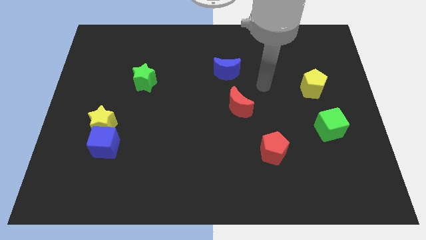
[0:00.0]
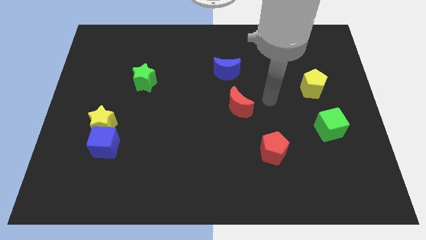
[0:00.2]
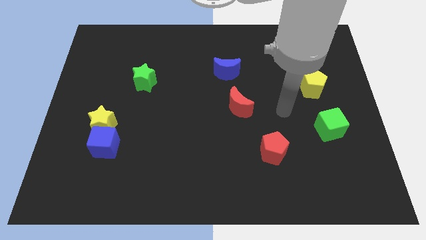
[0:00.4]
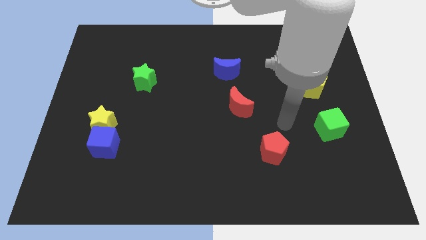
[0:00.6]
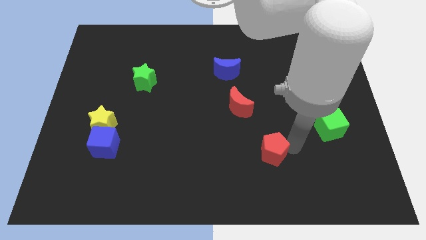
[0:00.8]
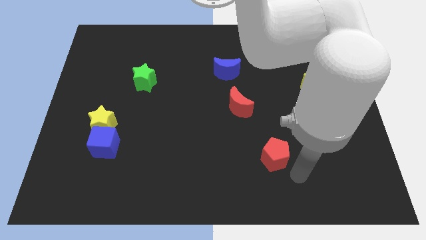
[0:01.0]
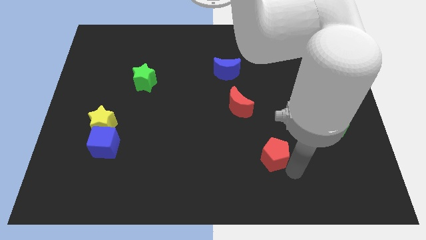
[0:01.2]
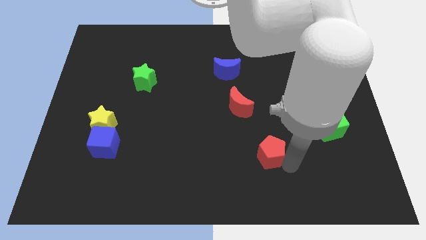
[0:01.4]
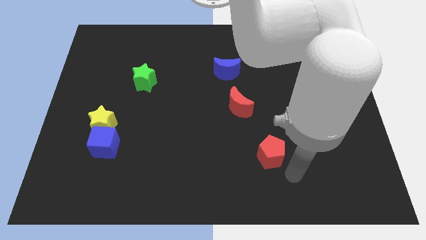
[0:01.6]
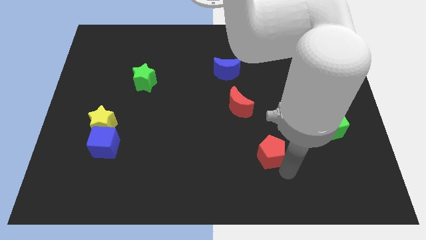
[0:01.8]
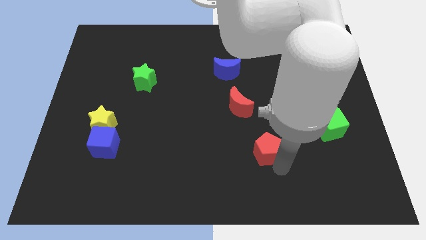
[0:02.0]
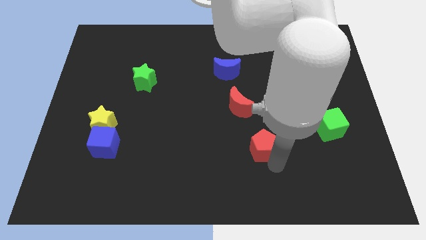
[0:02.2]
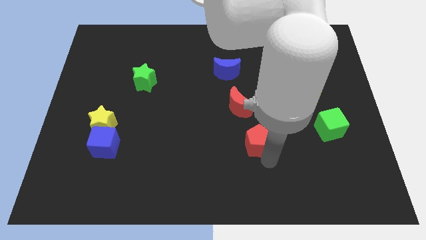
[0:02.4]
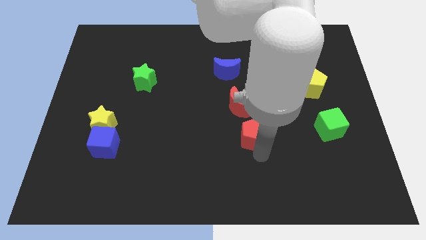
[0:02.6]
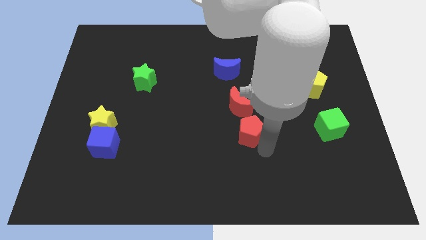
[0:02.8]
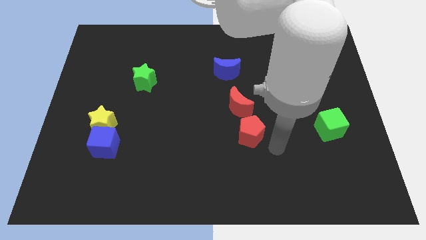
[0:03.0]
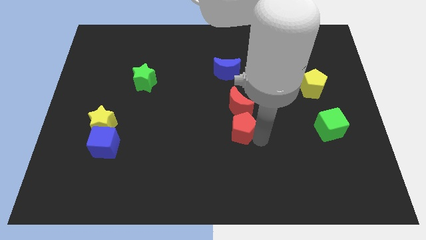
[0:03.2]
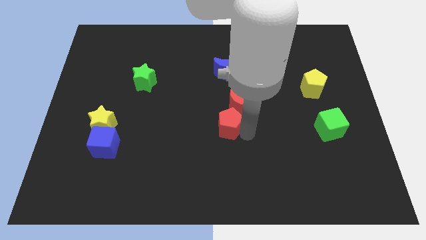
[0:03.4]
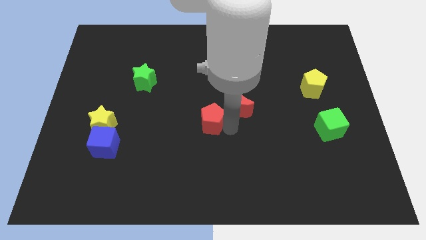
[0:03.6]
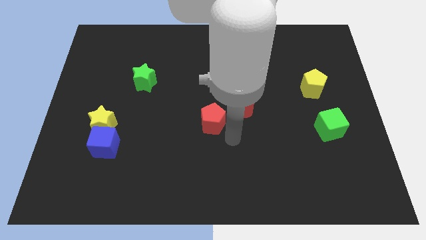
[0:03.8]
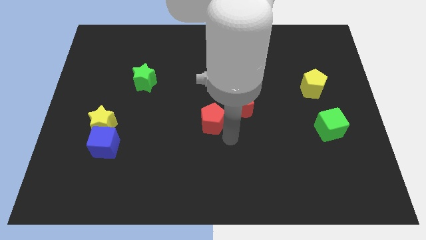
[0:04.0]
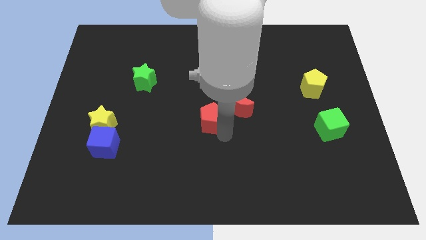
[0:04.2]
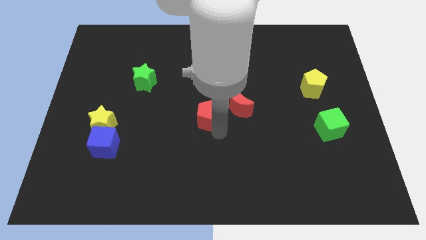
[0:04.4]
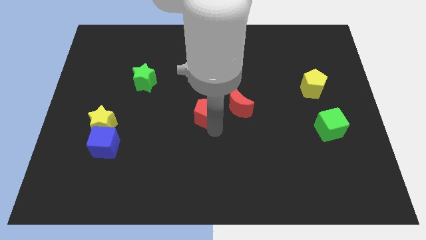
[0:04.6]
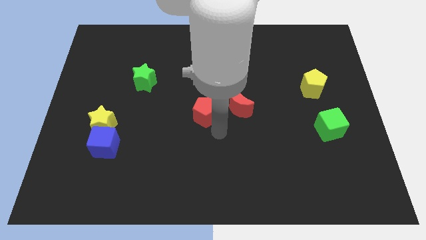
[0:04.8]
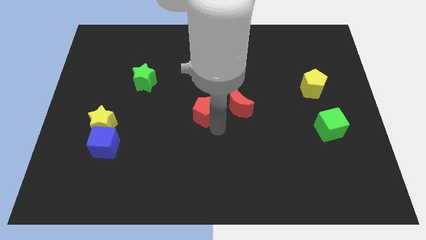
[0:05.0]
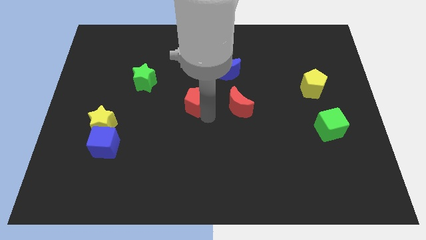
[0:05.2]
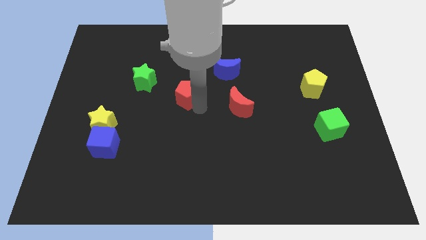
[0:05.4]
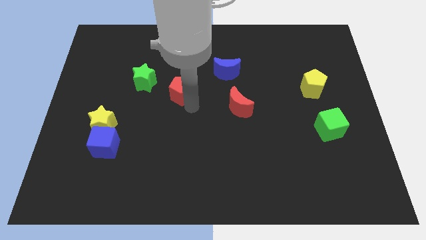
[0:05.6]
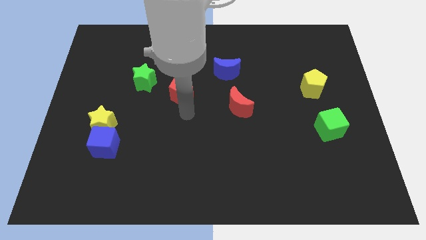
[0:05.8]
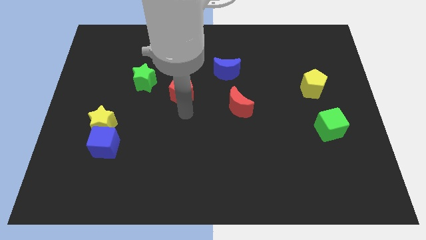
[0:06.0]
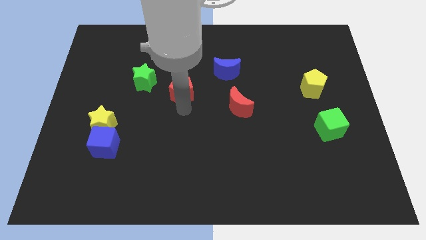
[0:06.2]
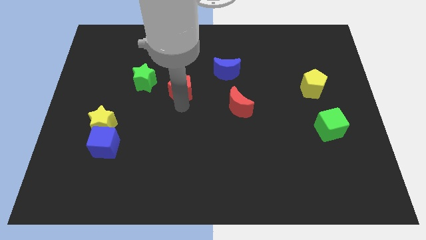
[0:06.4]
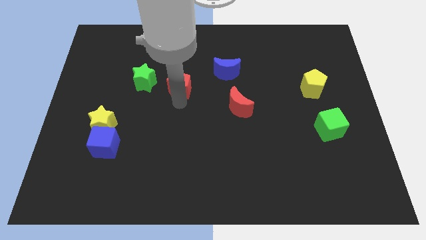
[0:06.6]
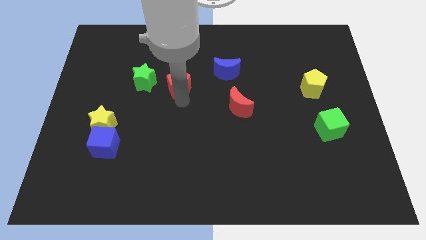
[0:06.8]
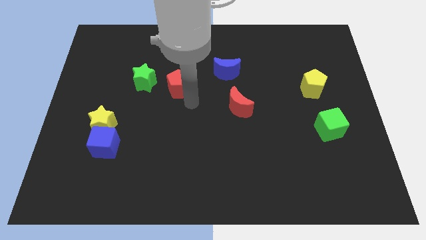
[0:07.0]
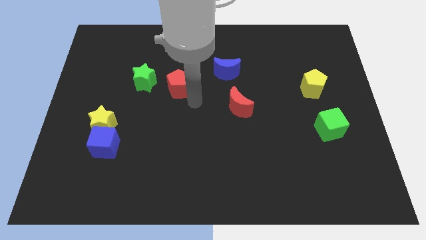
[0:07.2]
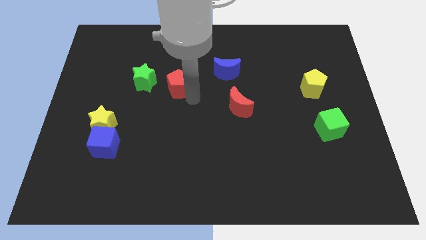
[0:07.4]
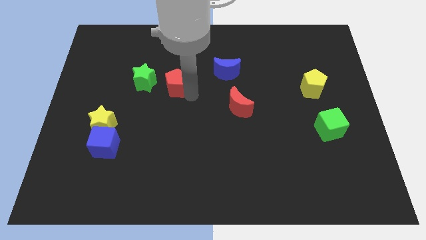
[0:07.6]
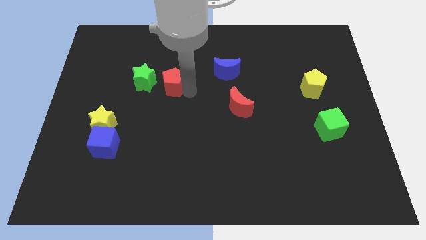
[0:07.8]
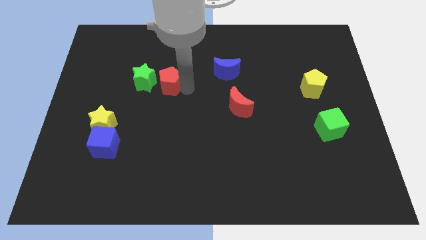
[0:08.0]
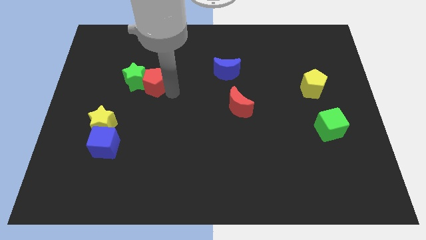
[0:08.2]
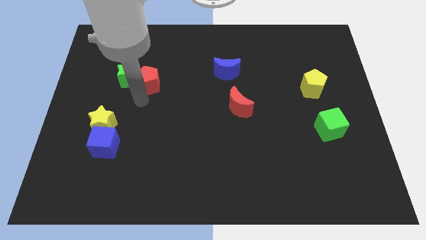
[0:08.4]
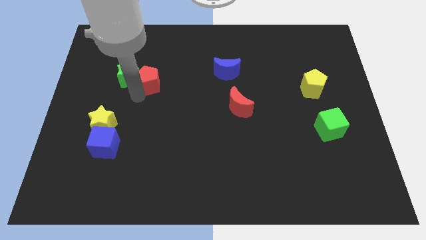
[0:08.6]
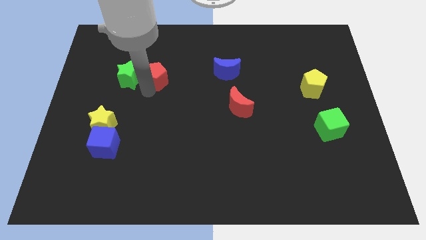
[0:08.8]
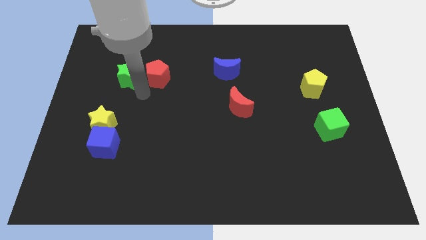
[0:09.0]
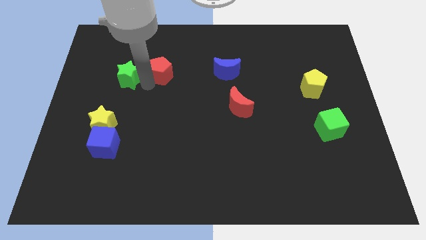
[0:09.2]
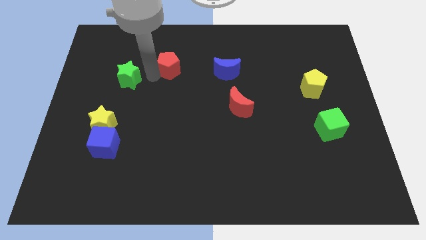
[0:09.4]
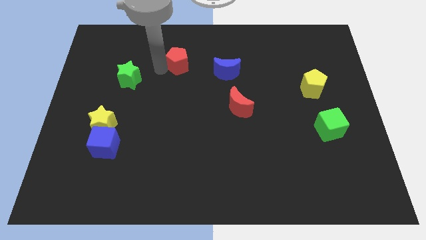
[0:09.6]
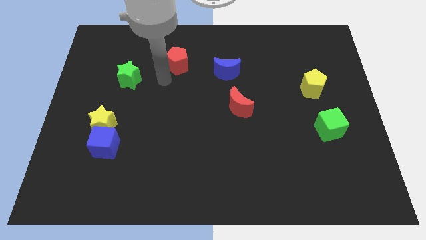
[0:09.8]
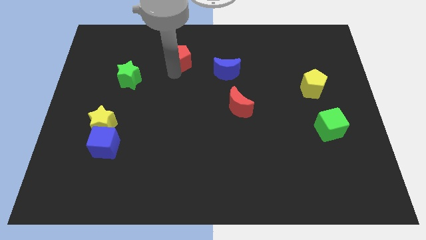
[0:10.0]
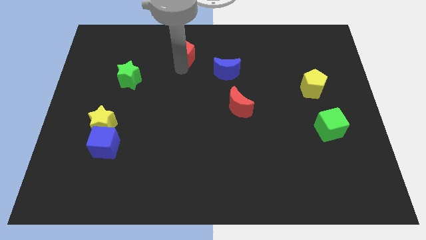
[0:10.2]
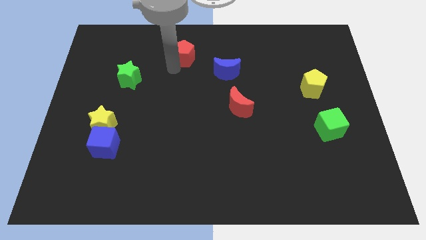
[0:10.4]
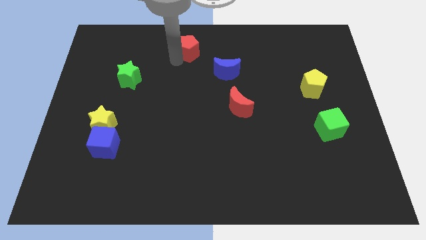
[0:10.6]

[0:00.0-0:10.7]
put the red pentagon to the top side

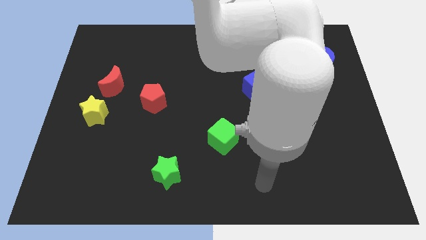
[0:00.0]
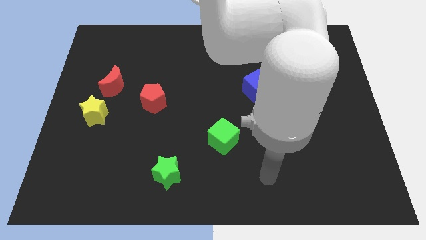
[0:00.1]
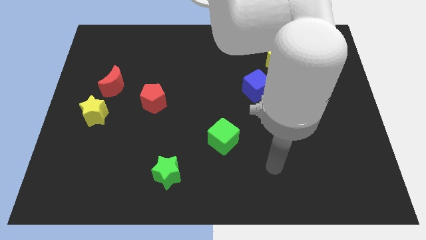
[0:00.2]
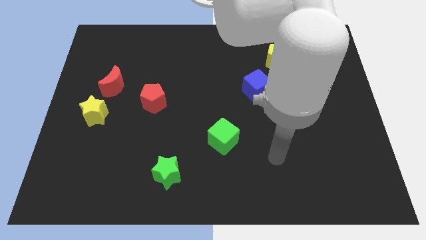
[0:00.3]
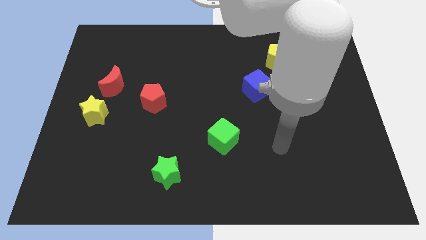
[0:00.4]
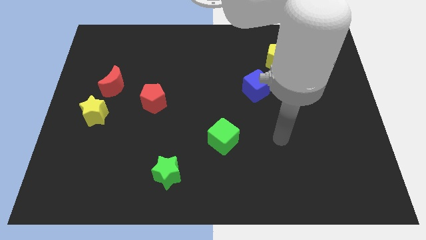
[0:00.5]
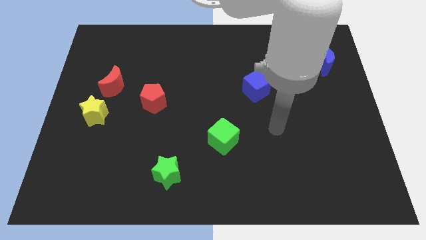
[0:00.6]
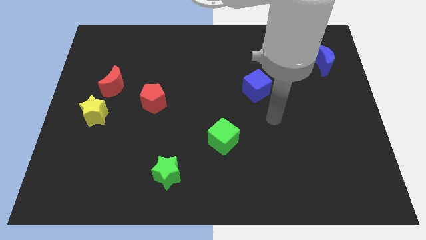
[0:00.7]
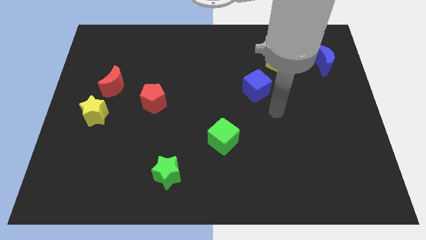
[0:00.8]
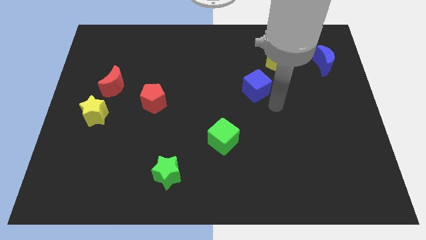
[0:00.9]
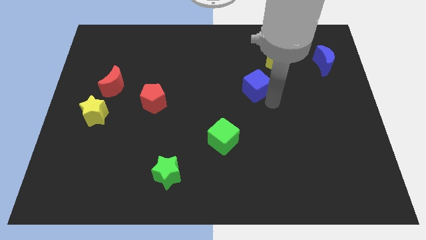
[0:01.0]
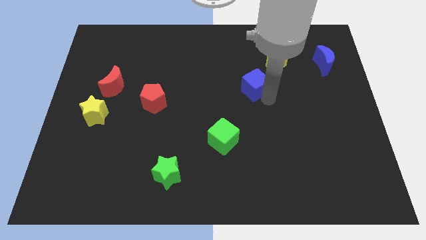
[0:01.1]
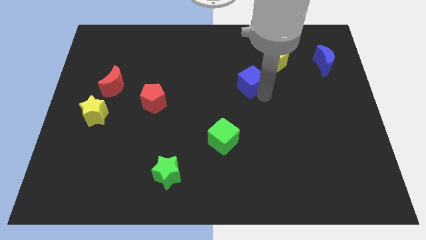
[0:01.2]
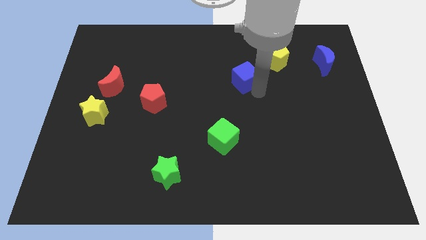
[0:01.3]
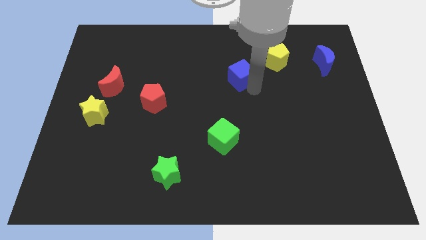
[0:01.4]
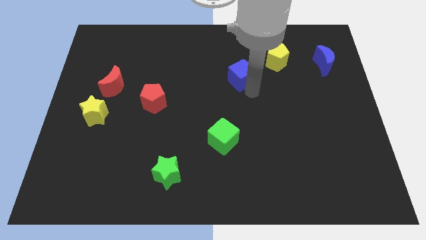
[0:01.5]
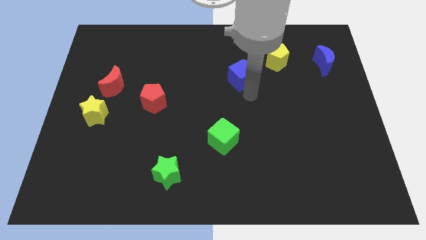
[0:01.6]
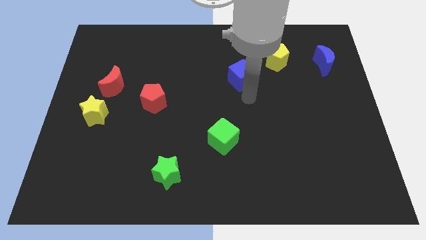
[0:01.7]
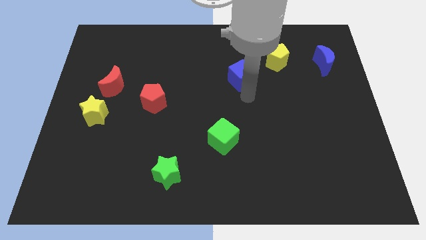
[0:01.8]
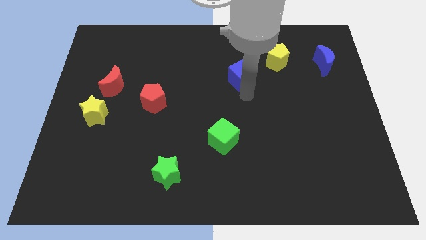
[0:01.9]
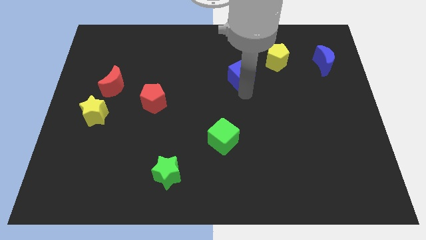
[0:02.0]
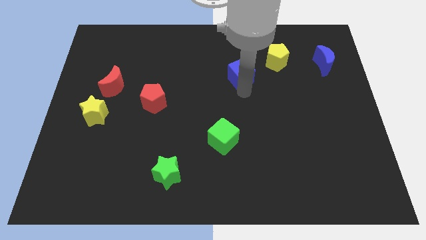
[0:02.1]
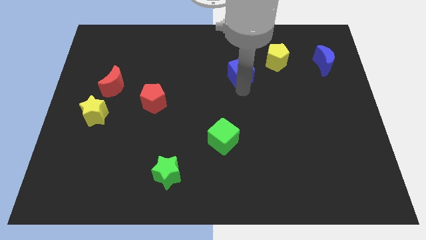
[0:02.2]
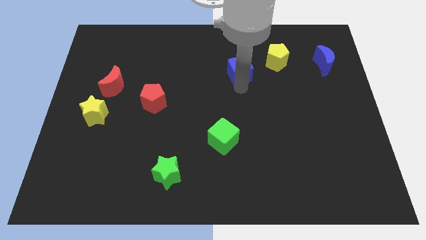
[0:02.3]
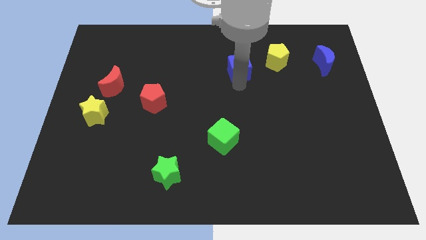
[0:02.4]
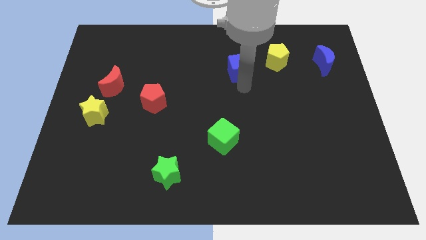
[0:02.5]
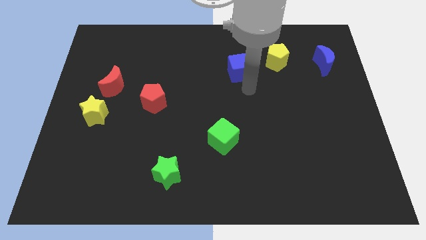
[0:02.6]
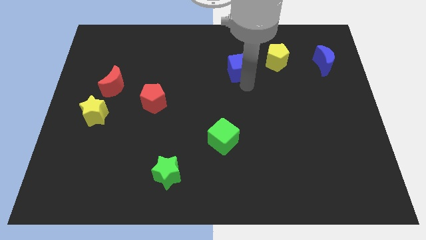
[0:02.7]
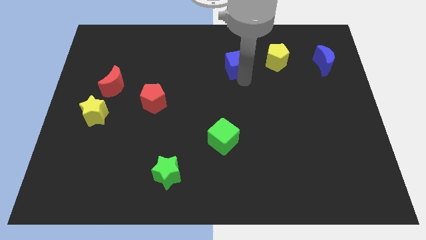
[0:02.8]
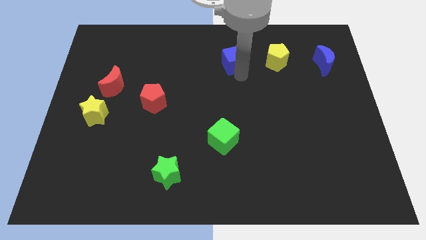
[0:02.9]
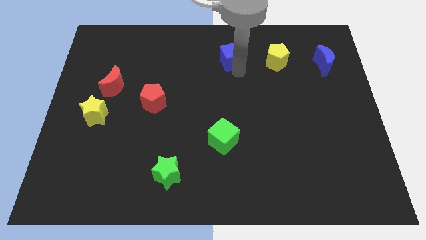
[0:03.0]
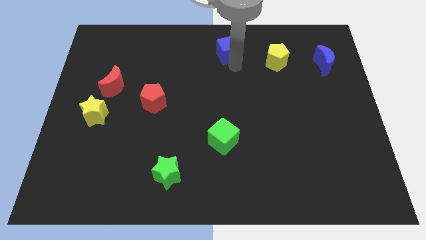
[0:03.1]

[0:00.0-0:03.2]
slide the blue cube to the top side
